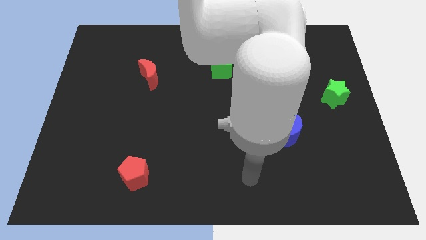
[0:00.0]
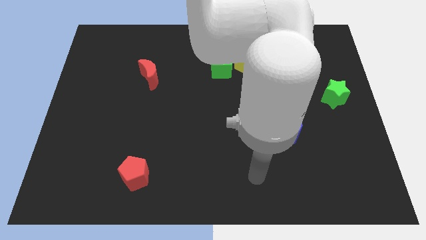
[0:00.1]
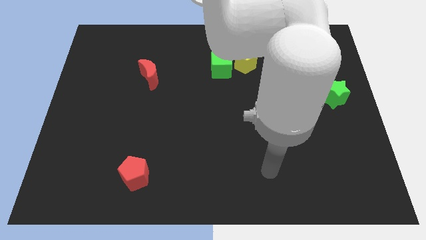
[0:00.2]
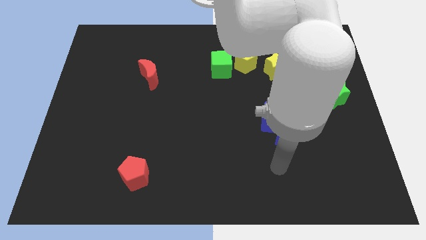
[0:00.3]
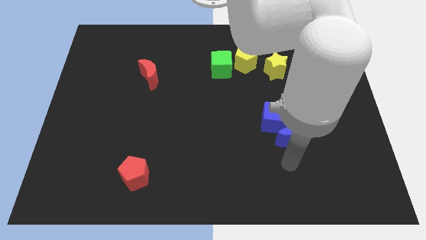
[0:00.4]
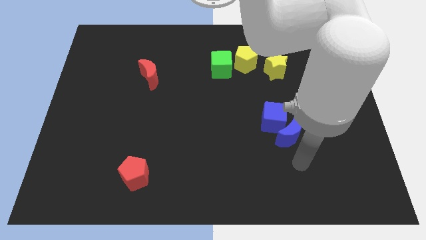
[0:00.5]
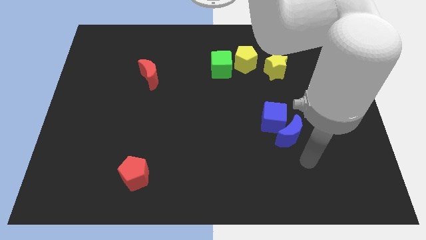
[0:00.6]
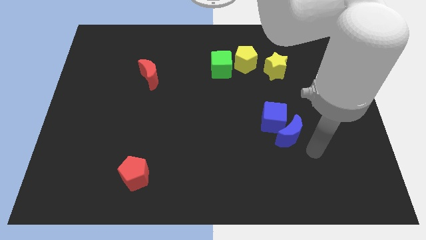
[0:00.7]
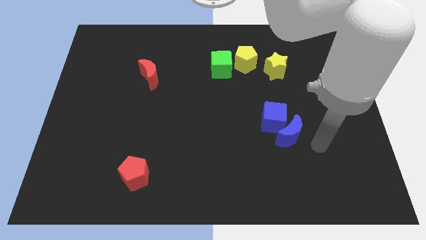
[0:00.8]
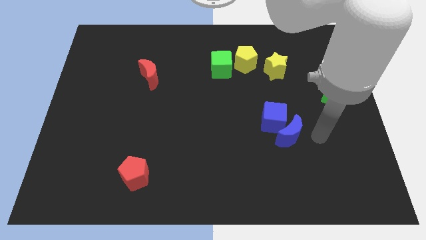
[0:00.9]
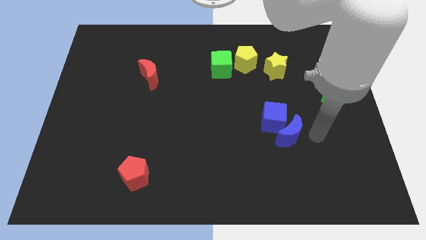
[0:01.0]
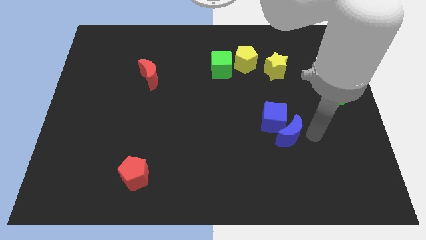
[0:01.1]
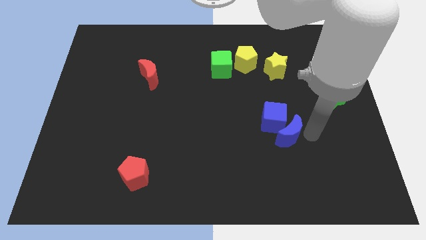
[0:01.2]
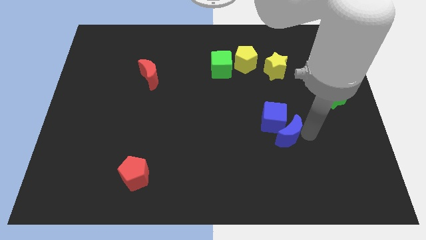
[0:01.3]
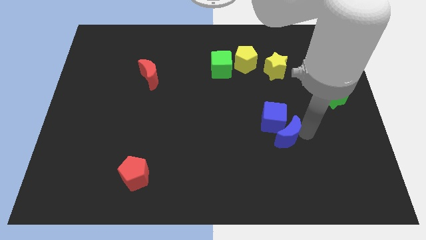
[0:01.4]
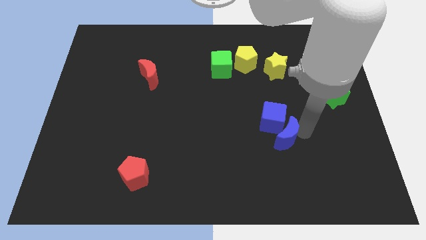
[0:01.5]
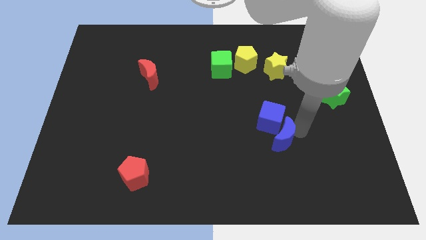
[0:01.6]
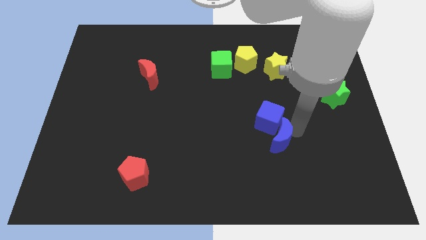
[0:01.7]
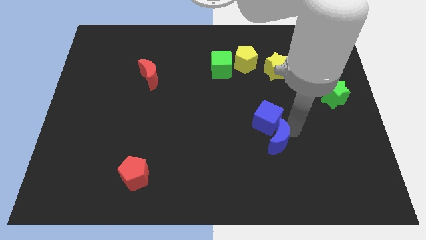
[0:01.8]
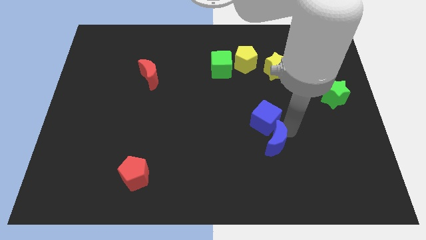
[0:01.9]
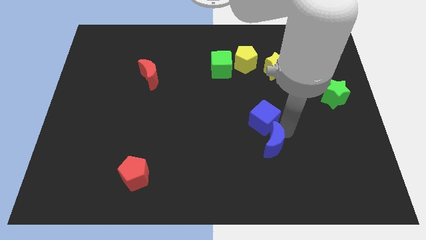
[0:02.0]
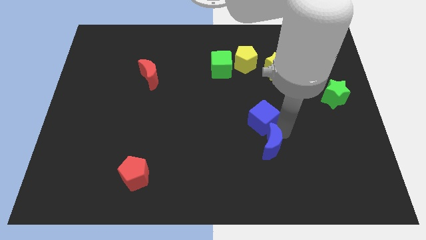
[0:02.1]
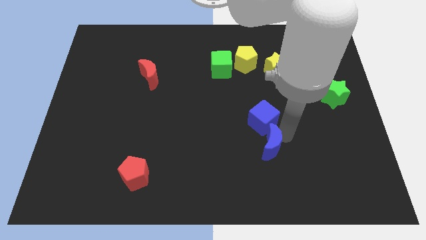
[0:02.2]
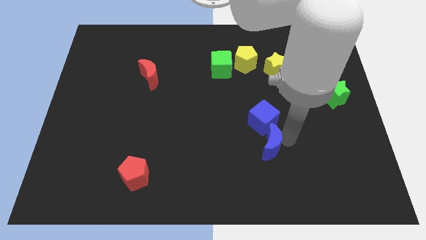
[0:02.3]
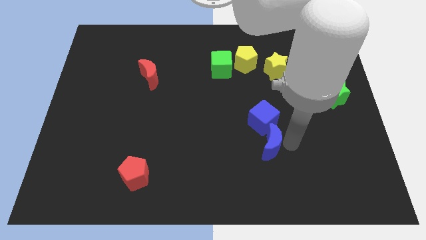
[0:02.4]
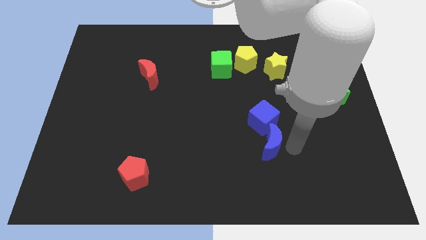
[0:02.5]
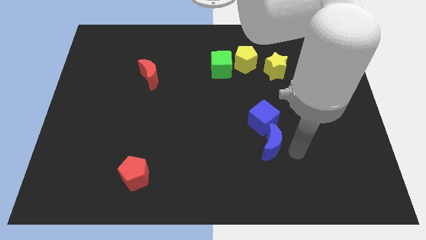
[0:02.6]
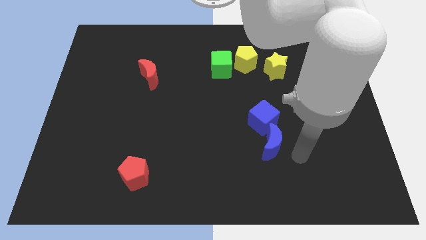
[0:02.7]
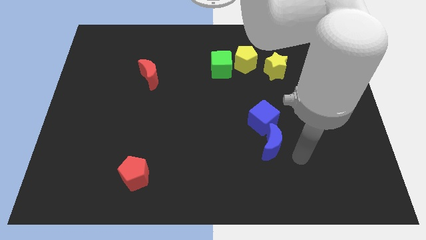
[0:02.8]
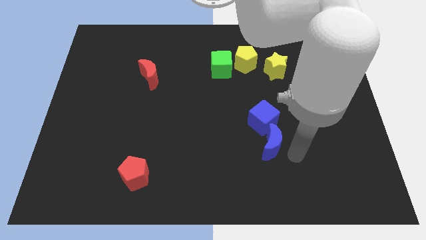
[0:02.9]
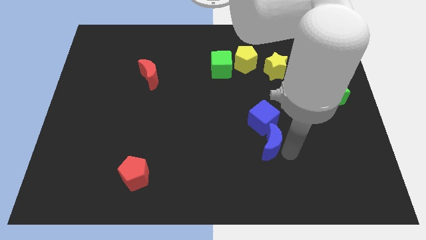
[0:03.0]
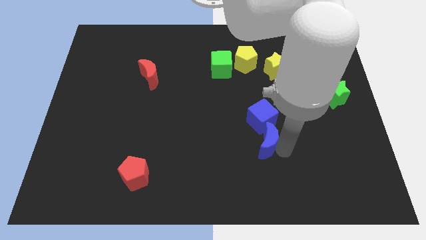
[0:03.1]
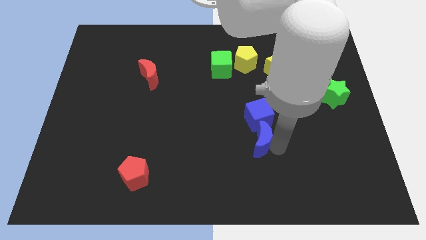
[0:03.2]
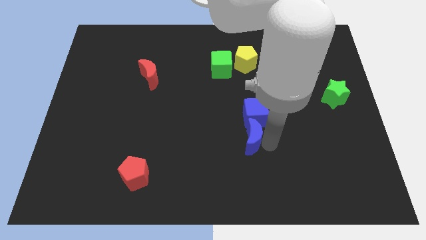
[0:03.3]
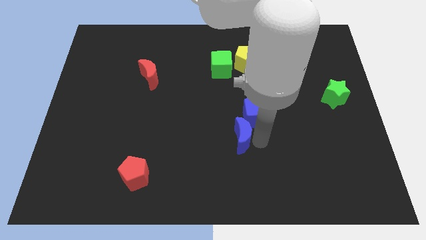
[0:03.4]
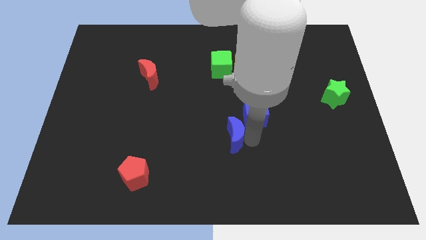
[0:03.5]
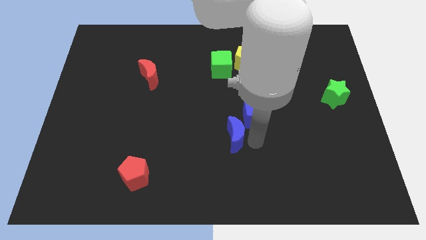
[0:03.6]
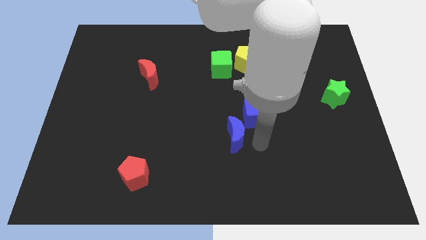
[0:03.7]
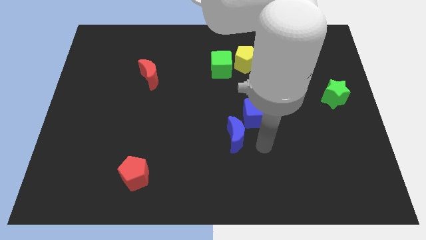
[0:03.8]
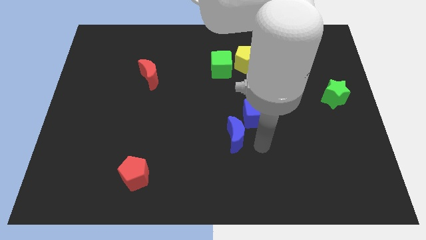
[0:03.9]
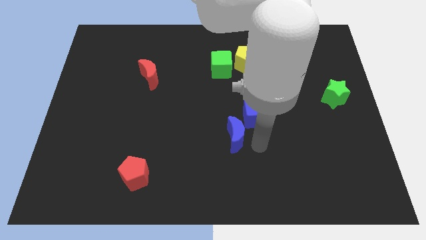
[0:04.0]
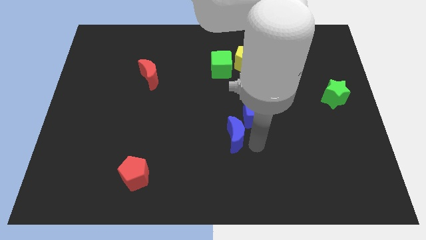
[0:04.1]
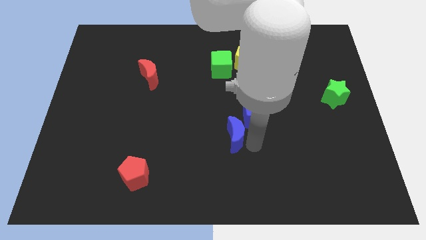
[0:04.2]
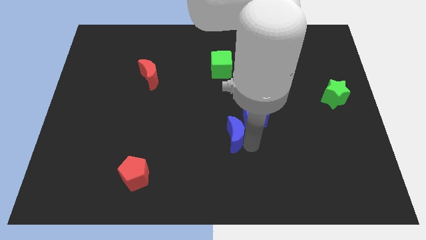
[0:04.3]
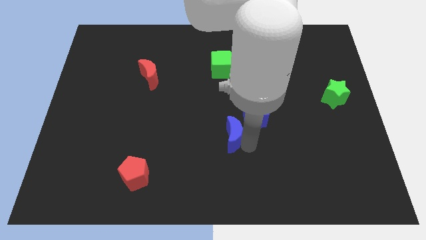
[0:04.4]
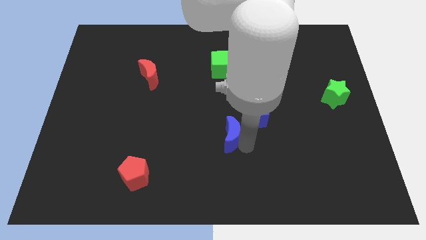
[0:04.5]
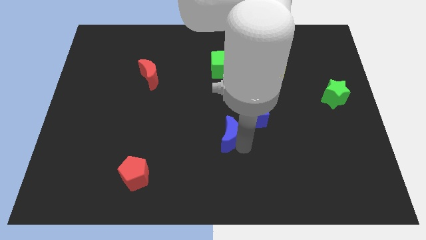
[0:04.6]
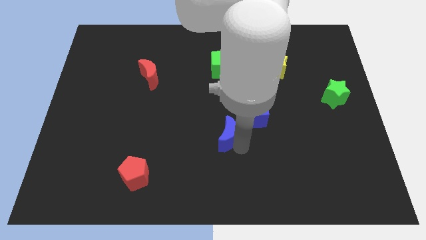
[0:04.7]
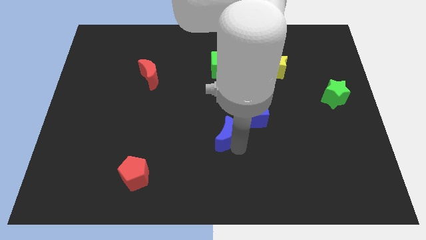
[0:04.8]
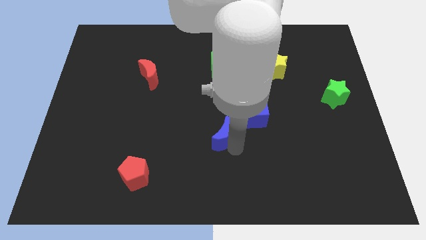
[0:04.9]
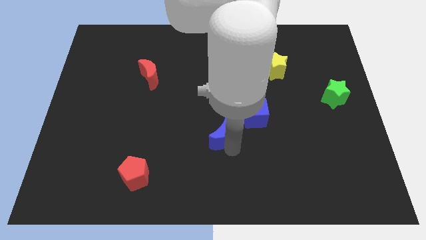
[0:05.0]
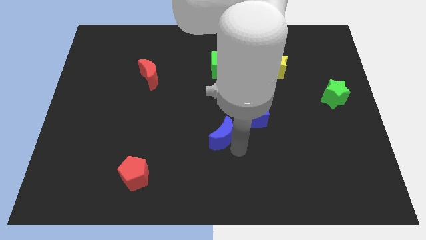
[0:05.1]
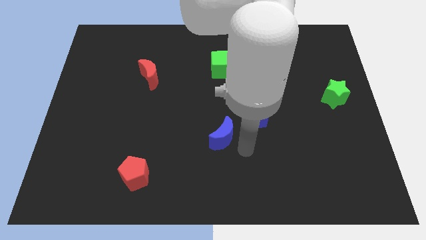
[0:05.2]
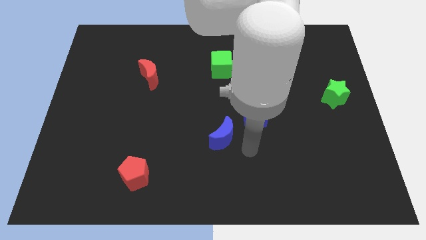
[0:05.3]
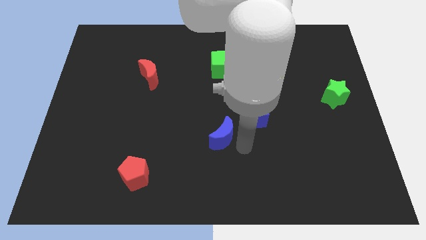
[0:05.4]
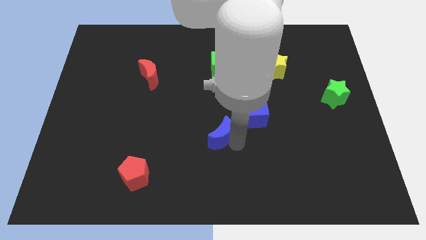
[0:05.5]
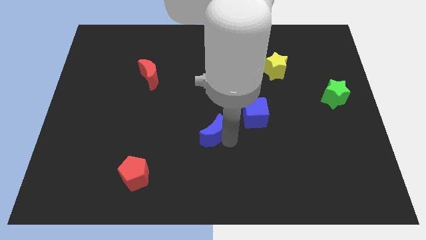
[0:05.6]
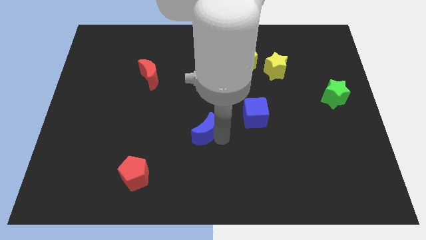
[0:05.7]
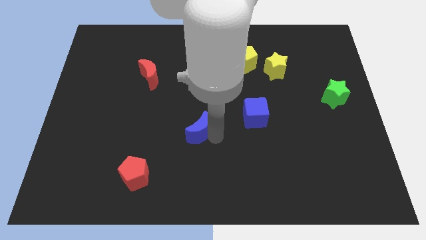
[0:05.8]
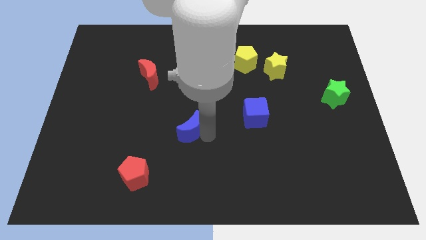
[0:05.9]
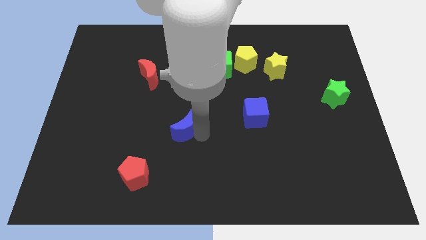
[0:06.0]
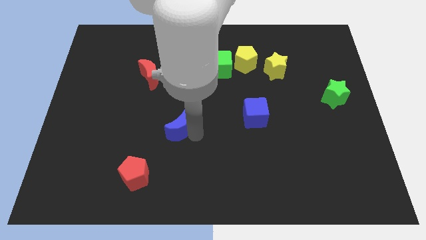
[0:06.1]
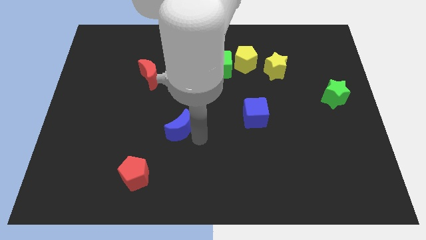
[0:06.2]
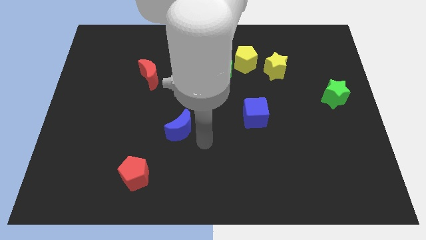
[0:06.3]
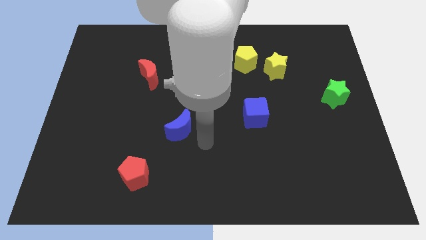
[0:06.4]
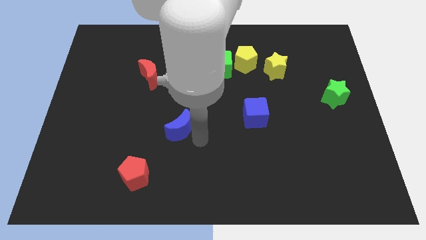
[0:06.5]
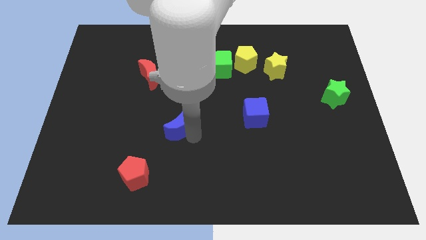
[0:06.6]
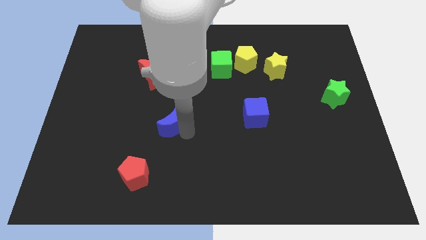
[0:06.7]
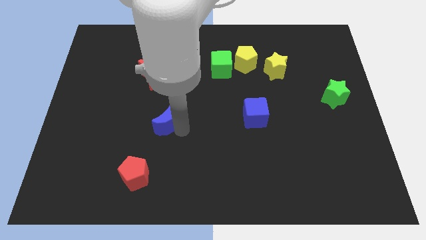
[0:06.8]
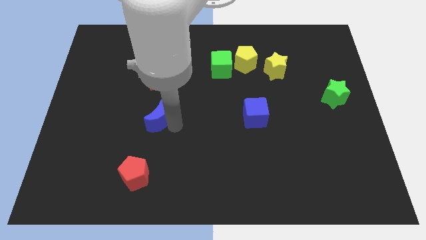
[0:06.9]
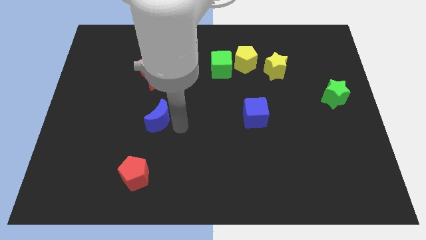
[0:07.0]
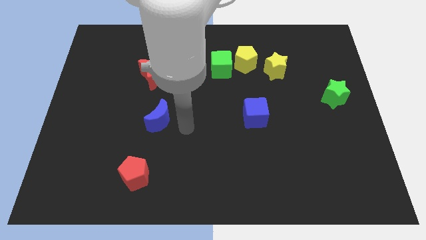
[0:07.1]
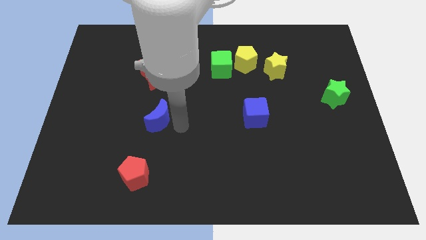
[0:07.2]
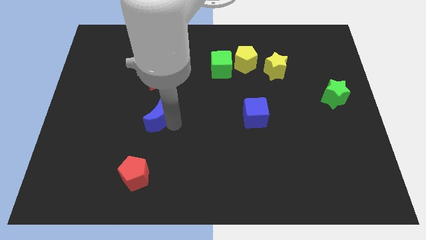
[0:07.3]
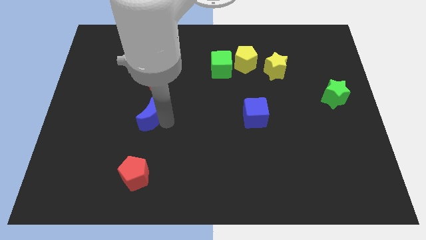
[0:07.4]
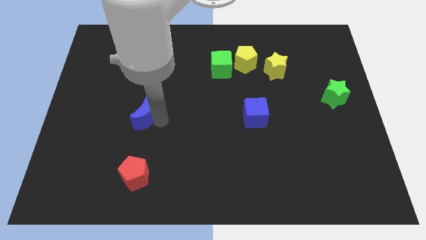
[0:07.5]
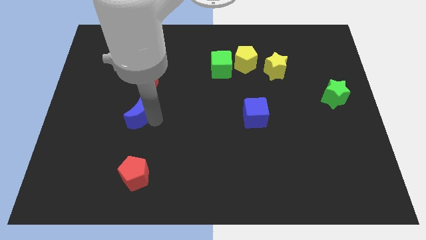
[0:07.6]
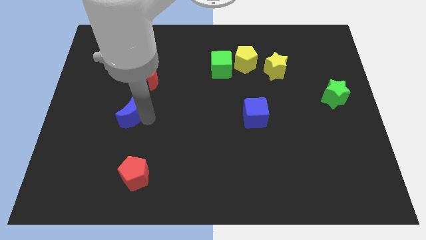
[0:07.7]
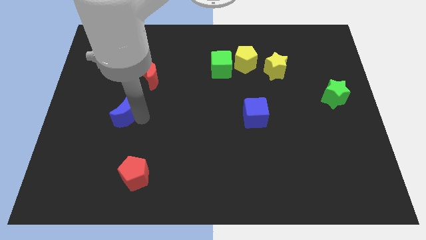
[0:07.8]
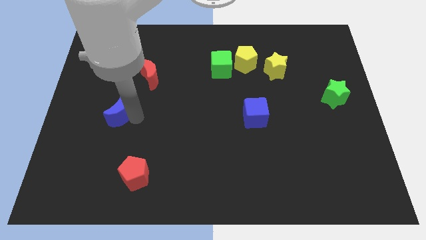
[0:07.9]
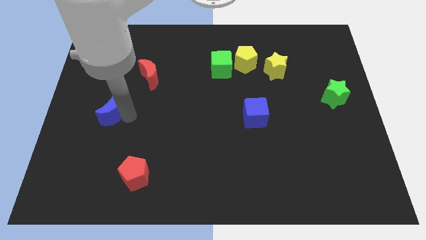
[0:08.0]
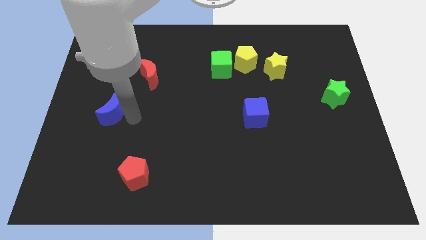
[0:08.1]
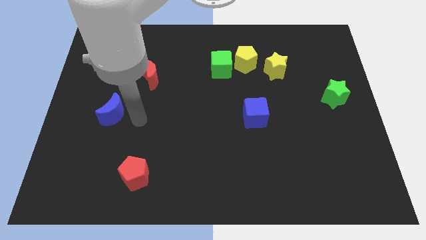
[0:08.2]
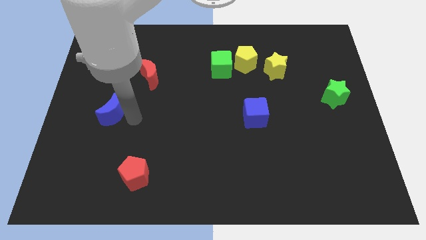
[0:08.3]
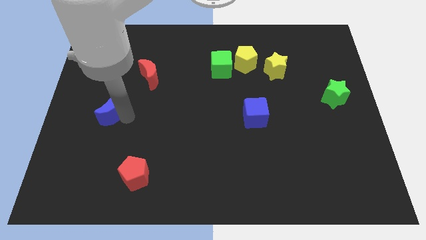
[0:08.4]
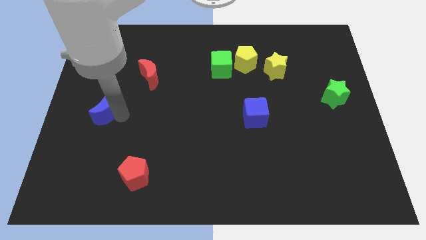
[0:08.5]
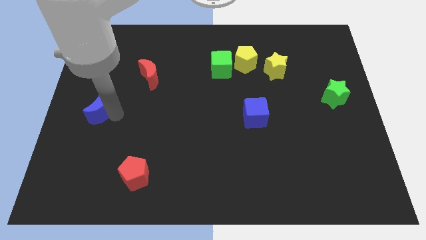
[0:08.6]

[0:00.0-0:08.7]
slide the blue moon to the left side
